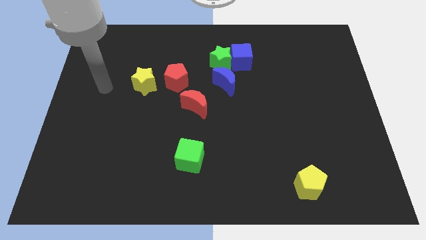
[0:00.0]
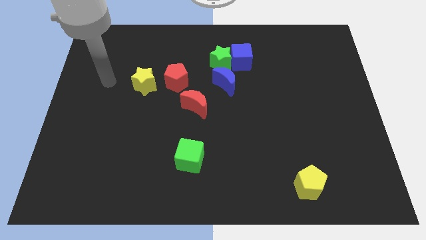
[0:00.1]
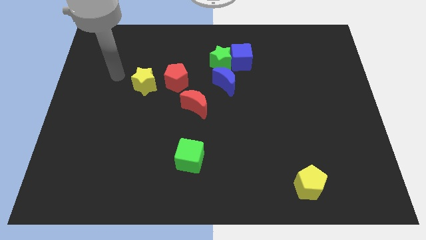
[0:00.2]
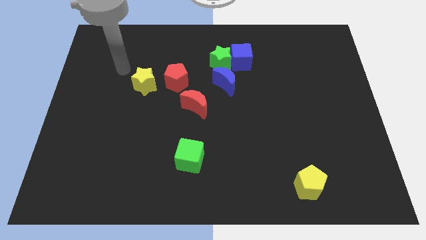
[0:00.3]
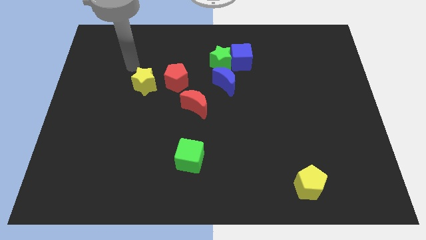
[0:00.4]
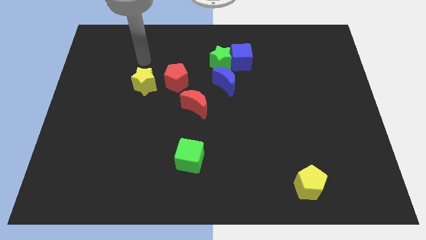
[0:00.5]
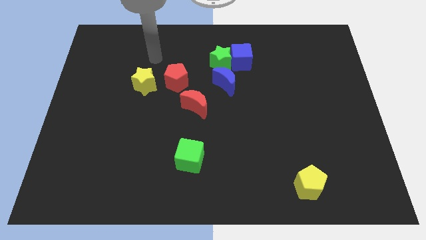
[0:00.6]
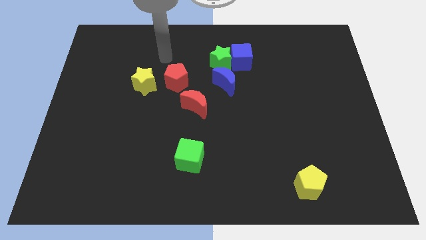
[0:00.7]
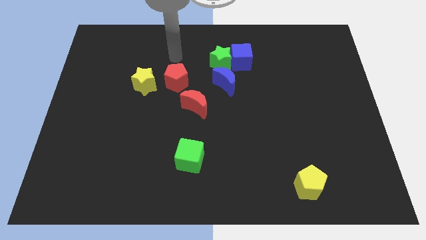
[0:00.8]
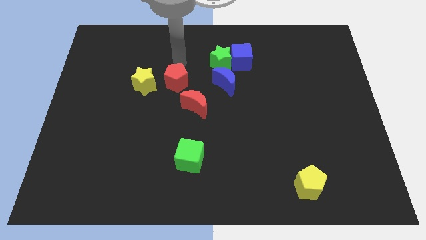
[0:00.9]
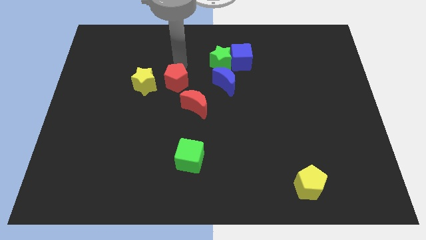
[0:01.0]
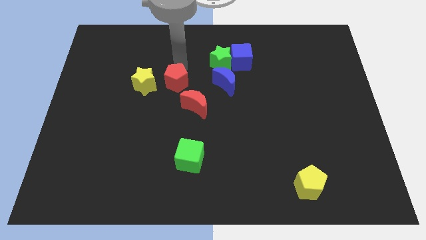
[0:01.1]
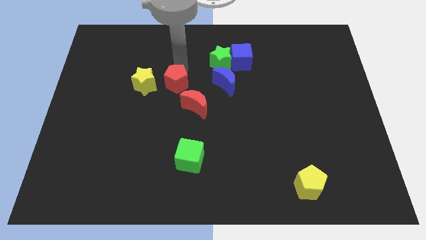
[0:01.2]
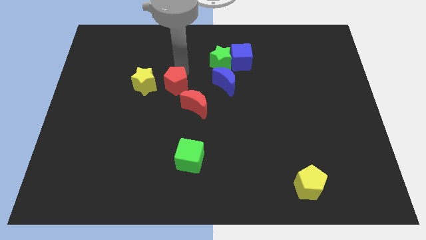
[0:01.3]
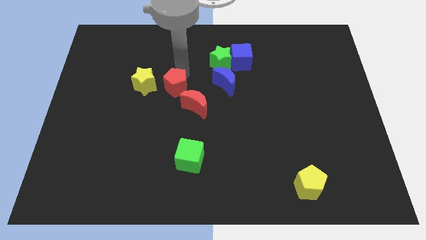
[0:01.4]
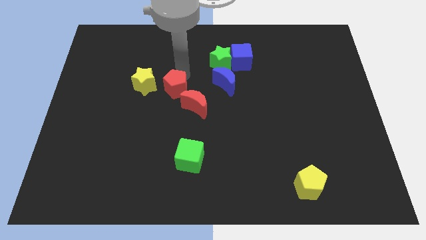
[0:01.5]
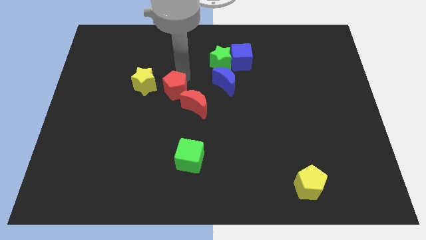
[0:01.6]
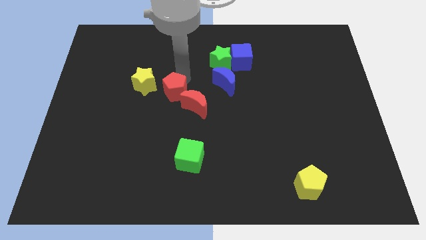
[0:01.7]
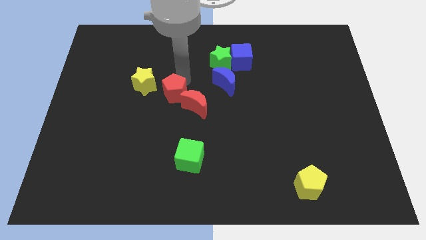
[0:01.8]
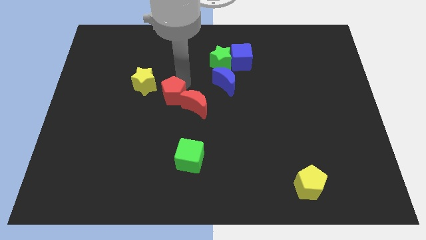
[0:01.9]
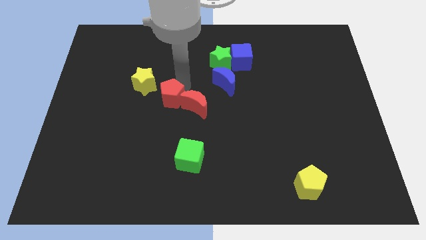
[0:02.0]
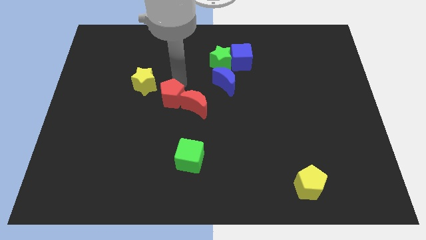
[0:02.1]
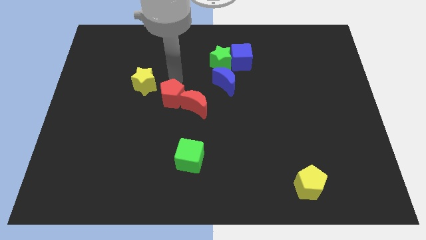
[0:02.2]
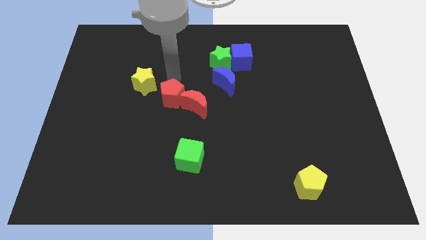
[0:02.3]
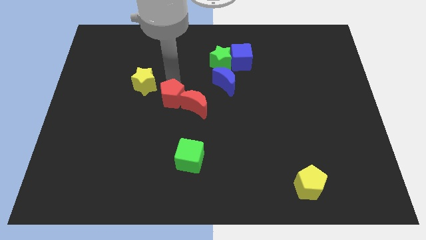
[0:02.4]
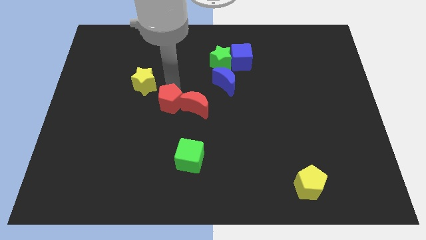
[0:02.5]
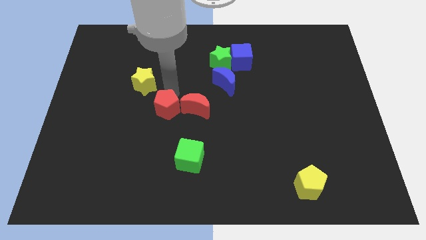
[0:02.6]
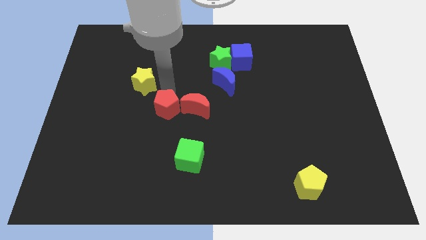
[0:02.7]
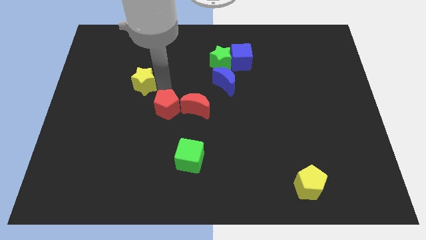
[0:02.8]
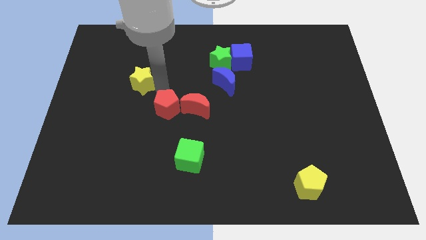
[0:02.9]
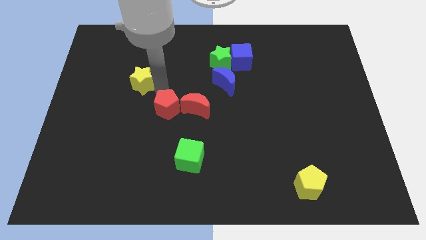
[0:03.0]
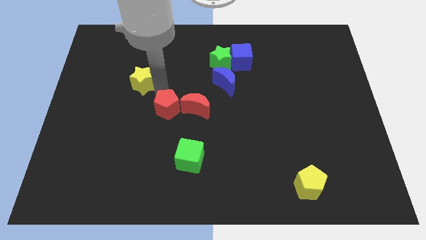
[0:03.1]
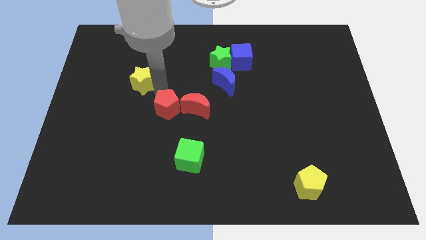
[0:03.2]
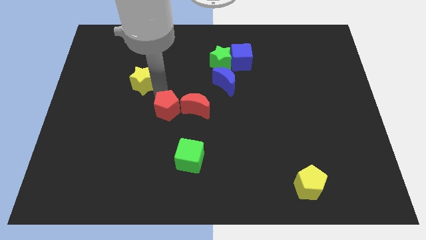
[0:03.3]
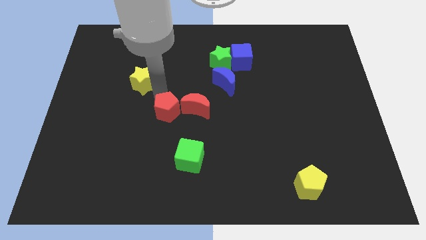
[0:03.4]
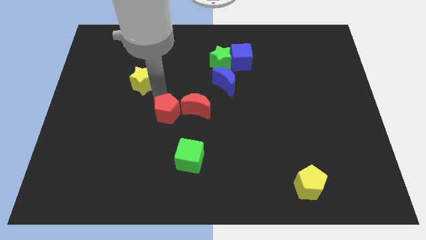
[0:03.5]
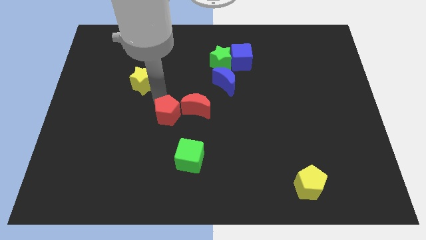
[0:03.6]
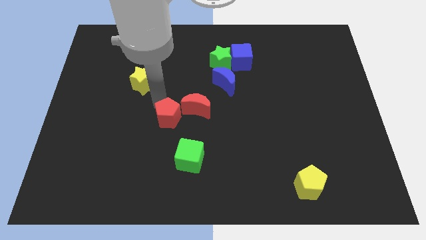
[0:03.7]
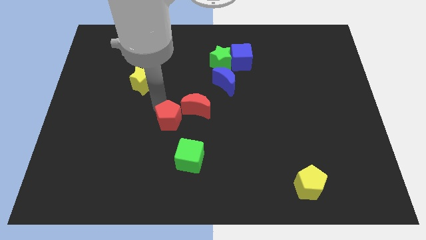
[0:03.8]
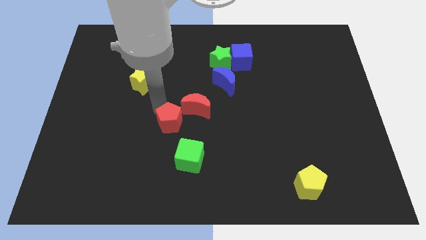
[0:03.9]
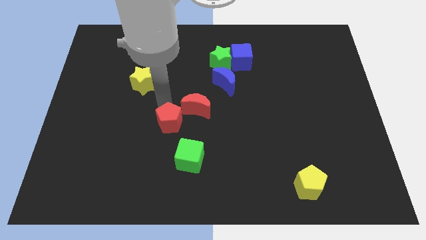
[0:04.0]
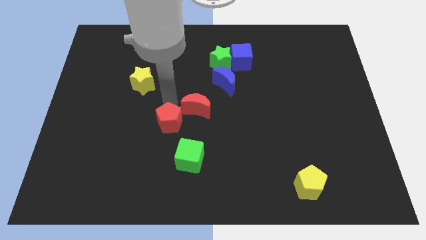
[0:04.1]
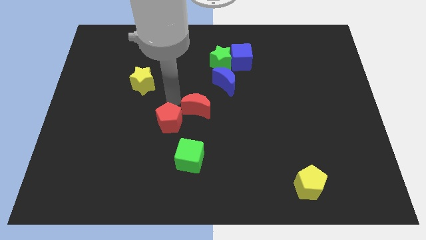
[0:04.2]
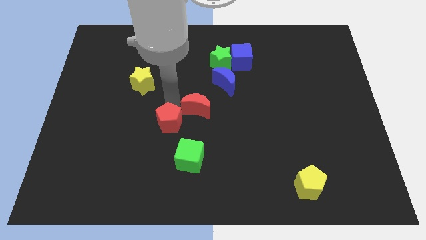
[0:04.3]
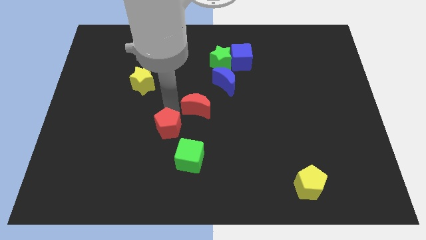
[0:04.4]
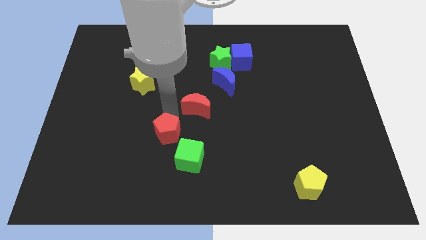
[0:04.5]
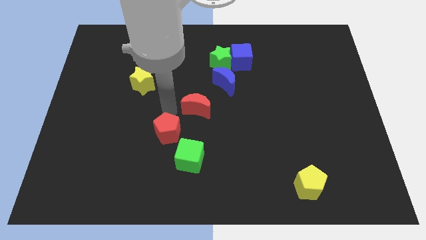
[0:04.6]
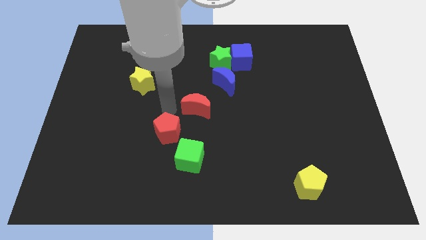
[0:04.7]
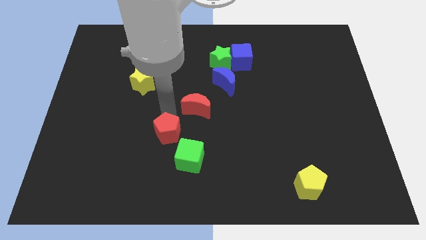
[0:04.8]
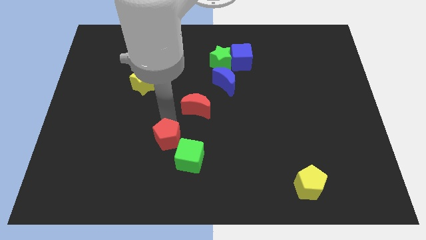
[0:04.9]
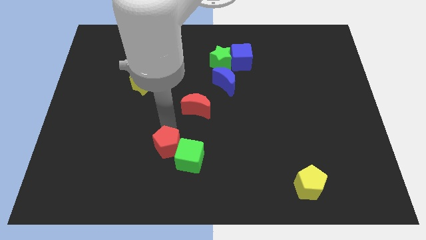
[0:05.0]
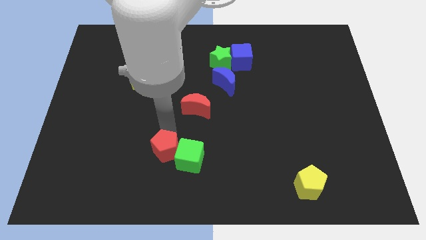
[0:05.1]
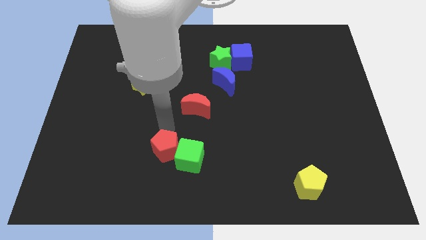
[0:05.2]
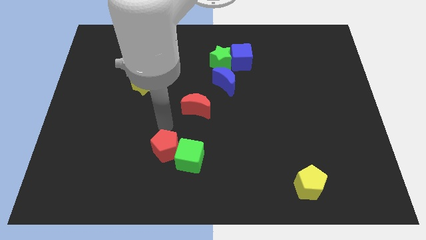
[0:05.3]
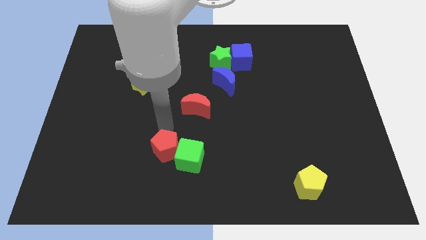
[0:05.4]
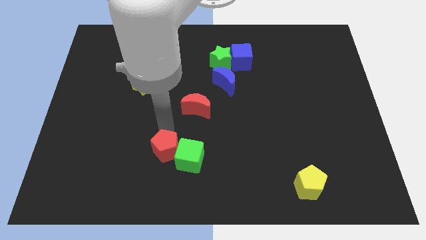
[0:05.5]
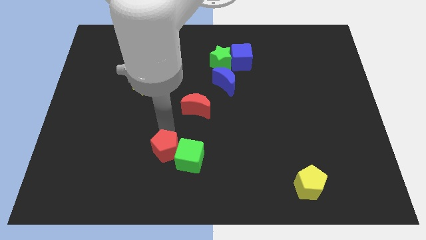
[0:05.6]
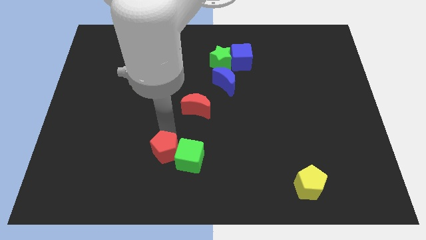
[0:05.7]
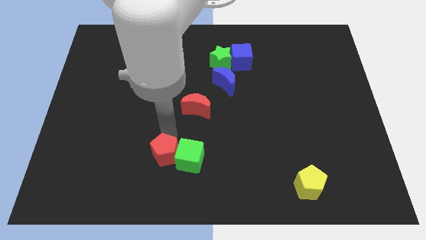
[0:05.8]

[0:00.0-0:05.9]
slide the red pentagon diagonally down and to the left of the green cube

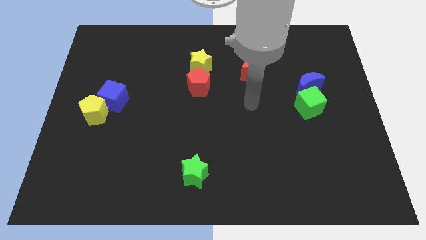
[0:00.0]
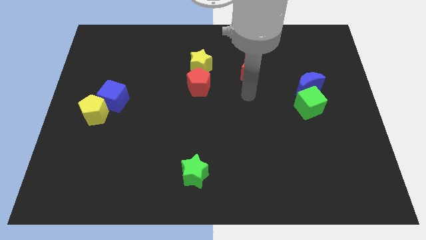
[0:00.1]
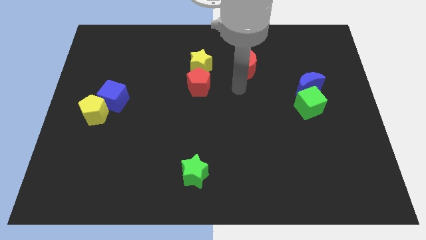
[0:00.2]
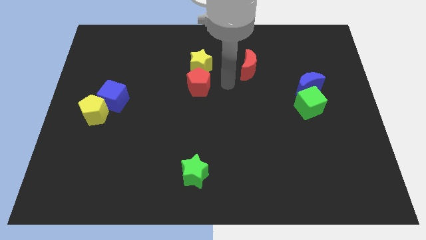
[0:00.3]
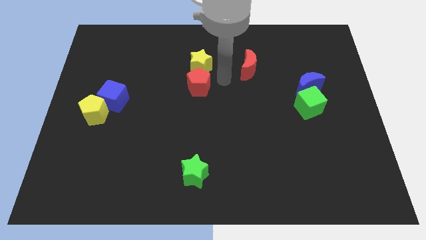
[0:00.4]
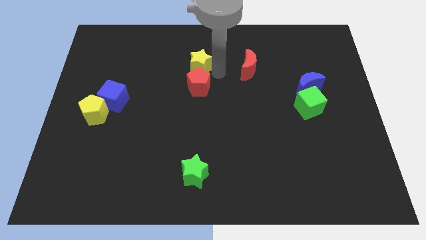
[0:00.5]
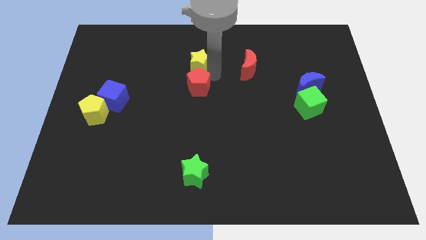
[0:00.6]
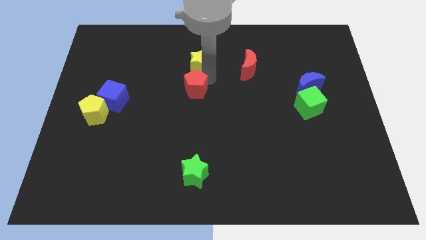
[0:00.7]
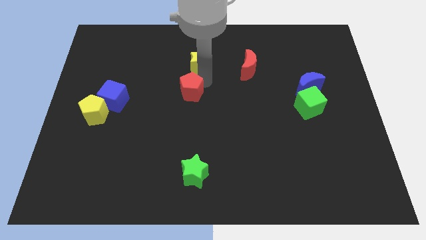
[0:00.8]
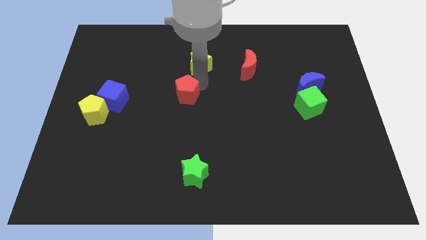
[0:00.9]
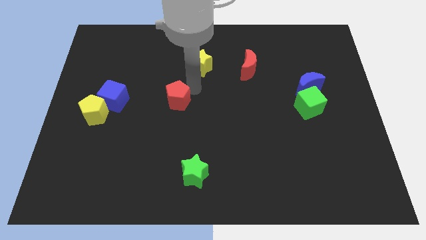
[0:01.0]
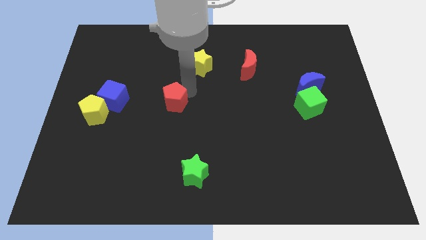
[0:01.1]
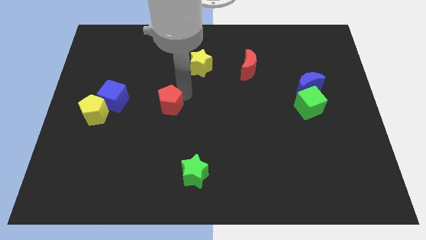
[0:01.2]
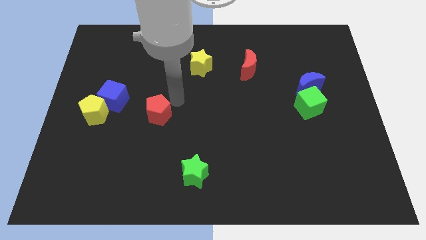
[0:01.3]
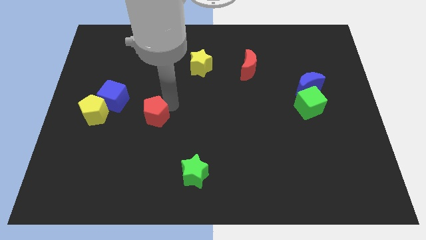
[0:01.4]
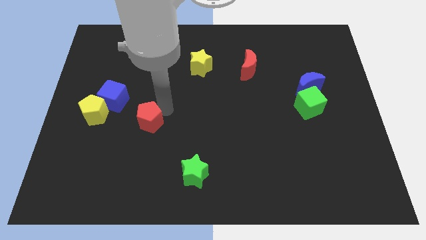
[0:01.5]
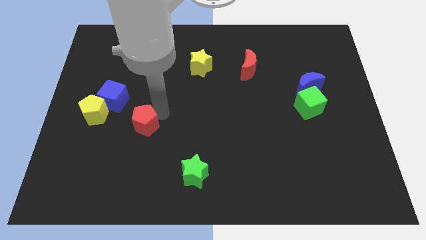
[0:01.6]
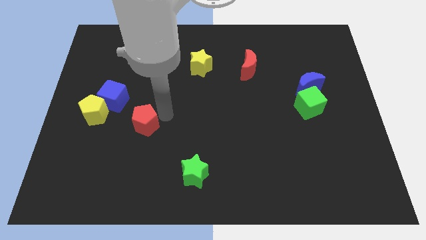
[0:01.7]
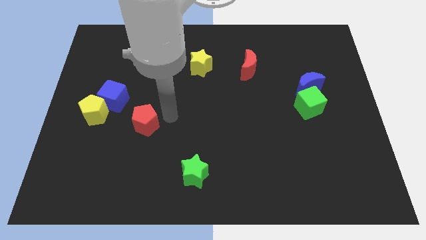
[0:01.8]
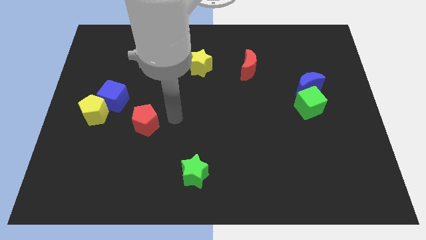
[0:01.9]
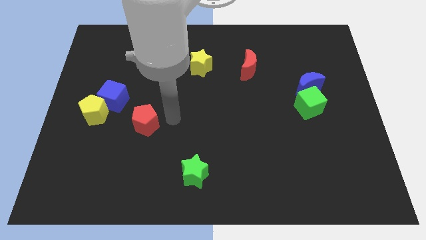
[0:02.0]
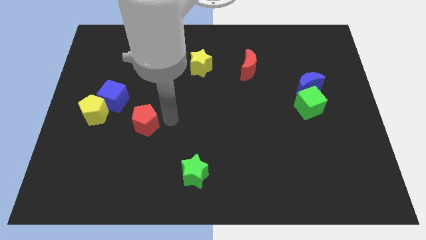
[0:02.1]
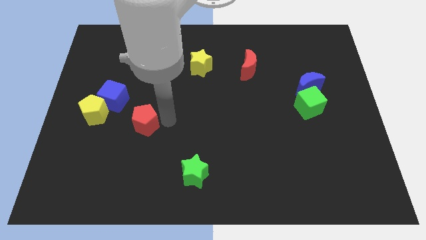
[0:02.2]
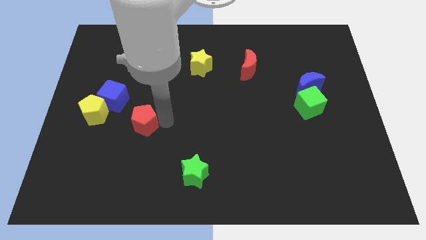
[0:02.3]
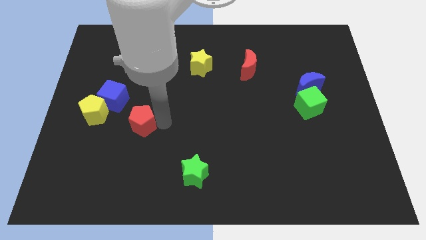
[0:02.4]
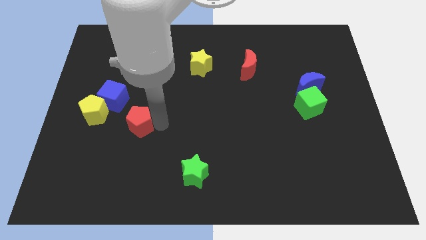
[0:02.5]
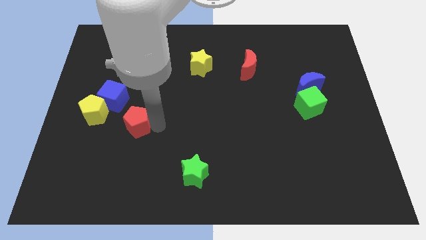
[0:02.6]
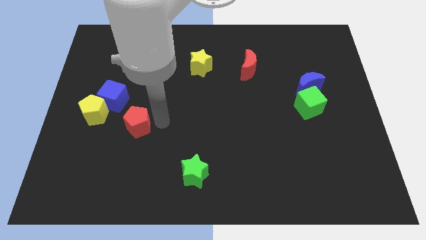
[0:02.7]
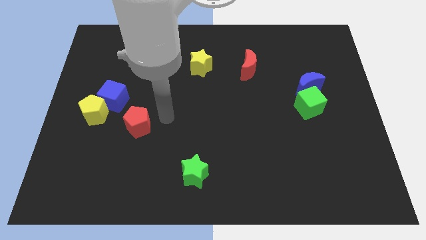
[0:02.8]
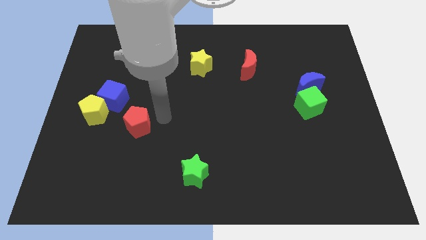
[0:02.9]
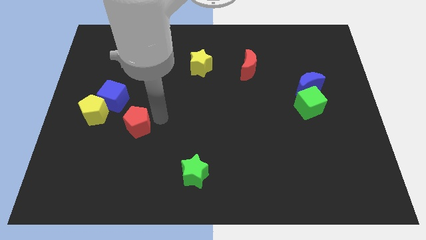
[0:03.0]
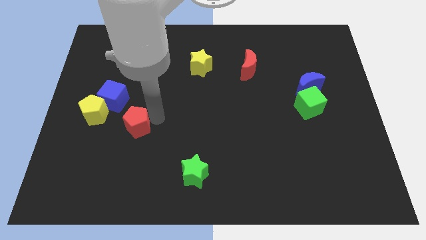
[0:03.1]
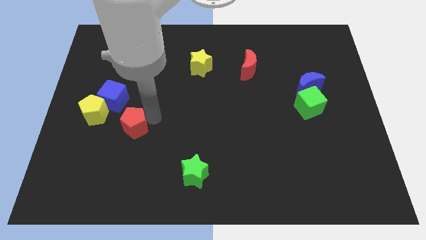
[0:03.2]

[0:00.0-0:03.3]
move the red pentagon to the bottom right side of the yellow pentagon
